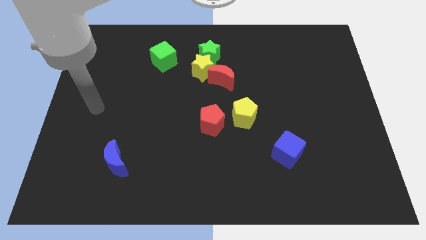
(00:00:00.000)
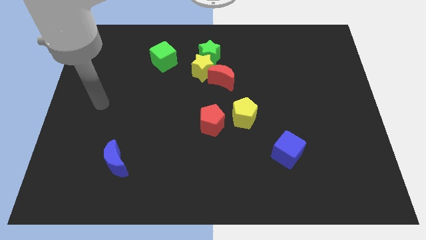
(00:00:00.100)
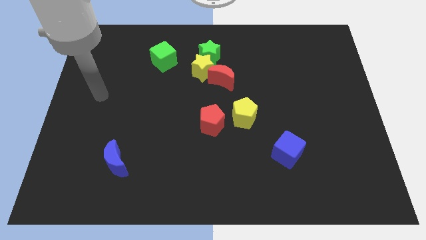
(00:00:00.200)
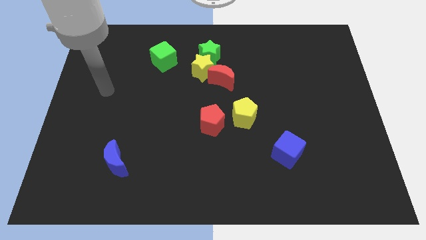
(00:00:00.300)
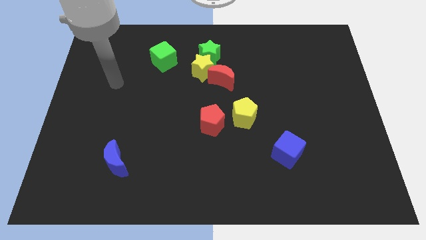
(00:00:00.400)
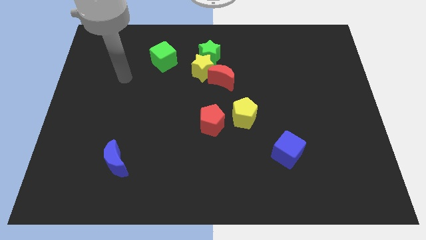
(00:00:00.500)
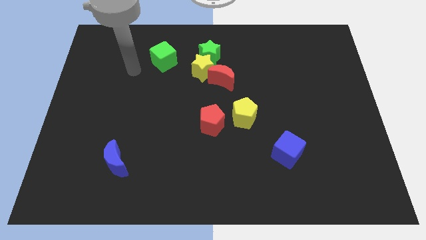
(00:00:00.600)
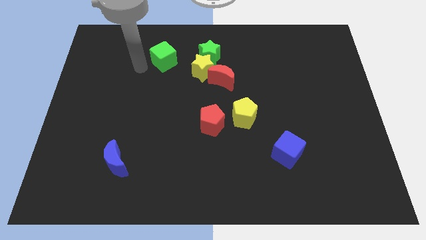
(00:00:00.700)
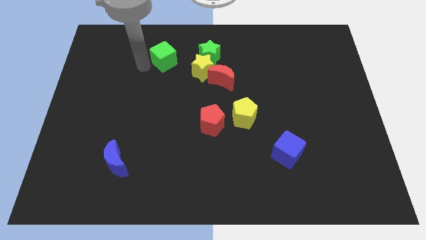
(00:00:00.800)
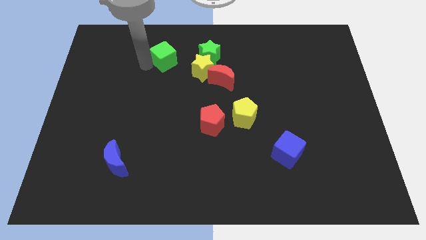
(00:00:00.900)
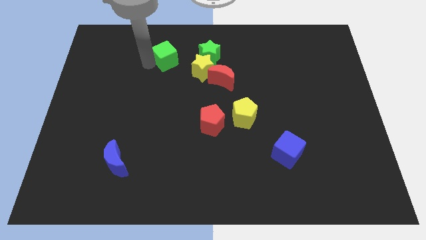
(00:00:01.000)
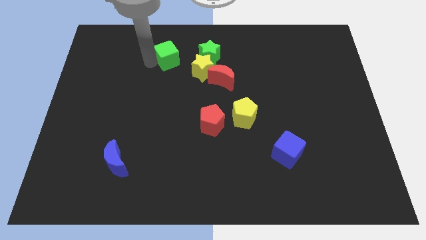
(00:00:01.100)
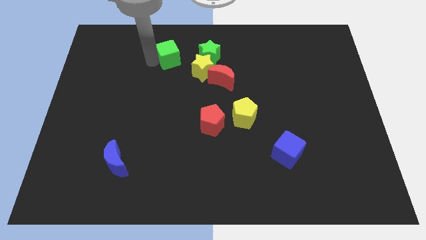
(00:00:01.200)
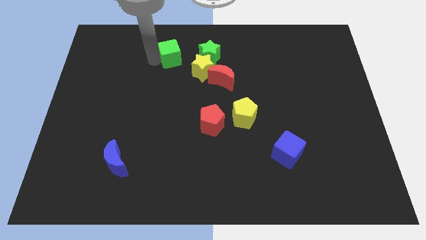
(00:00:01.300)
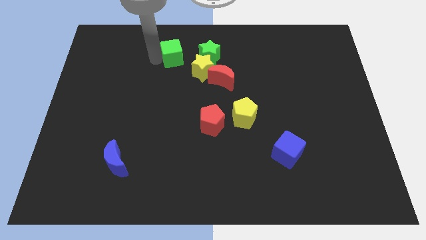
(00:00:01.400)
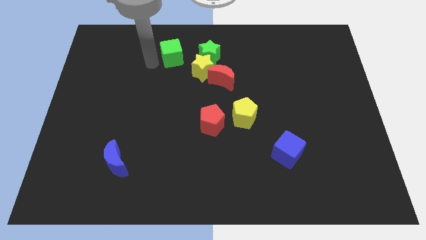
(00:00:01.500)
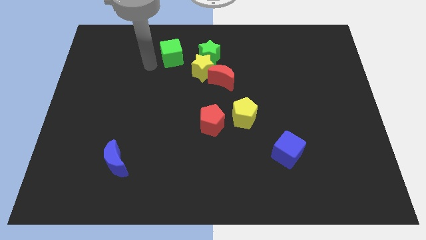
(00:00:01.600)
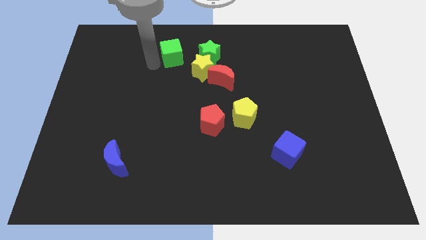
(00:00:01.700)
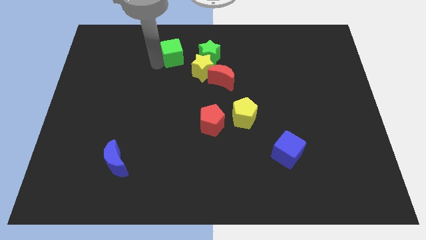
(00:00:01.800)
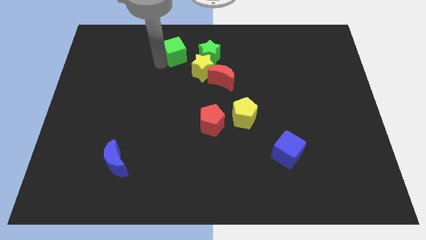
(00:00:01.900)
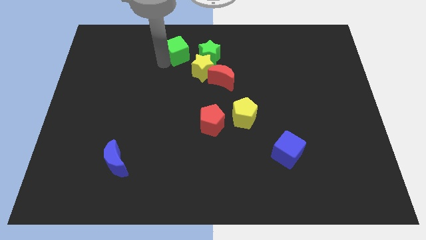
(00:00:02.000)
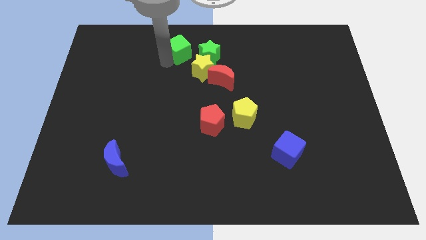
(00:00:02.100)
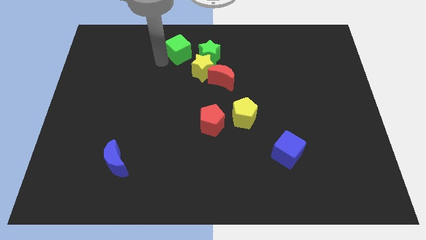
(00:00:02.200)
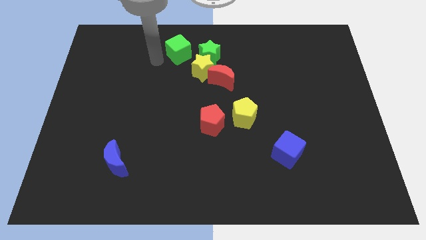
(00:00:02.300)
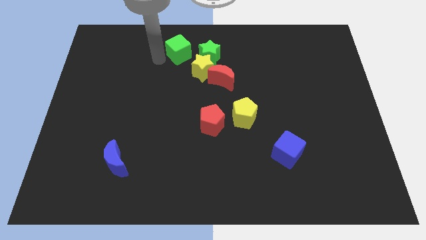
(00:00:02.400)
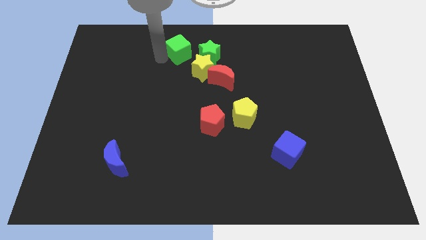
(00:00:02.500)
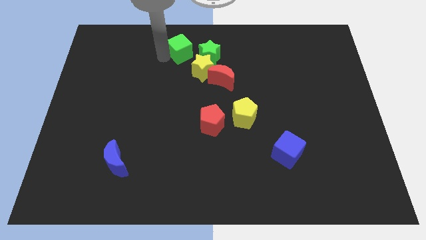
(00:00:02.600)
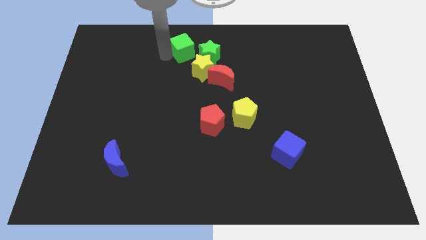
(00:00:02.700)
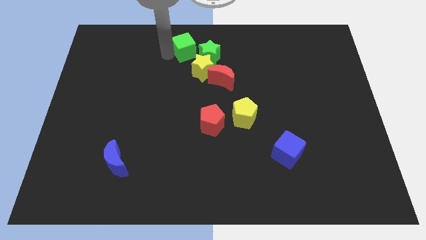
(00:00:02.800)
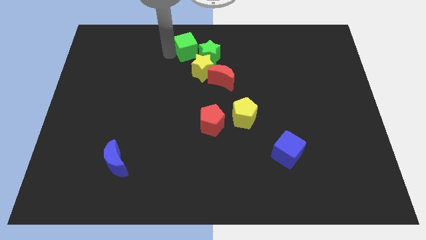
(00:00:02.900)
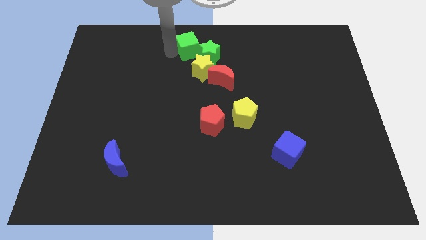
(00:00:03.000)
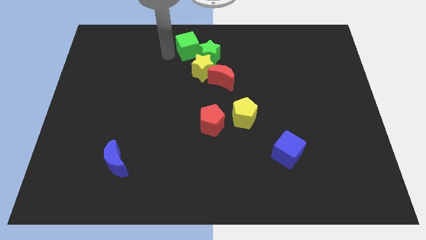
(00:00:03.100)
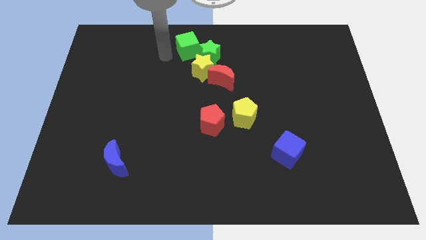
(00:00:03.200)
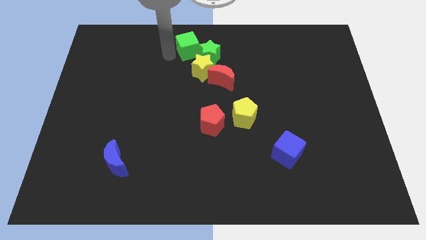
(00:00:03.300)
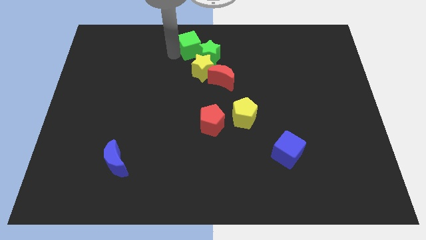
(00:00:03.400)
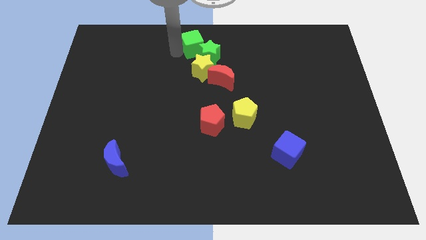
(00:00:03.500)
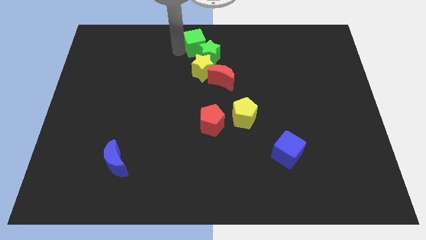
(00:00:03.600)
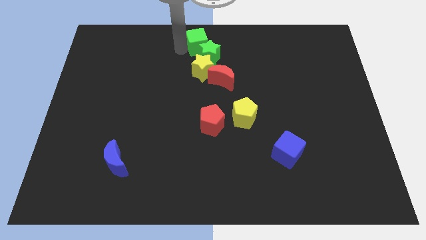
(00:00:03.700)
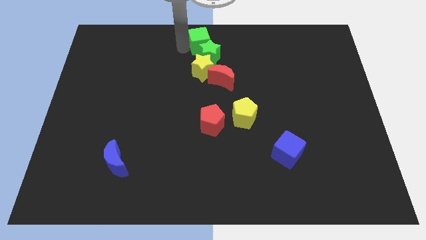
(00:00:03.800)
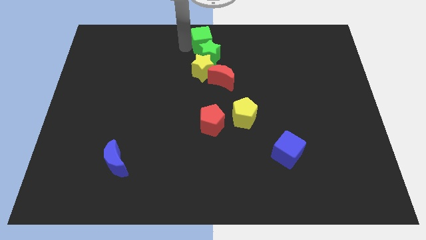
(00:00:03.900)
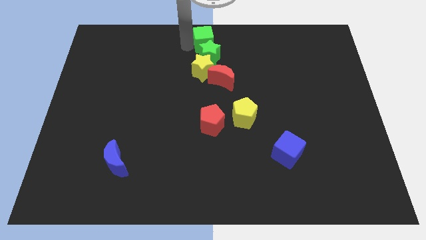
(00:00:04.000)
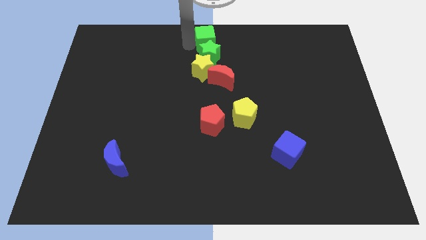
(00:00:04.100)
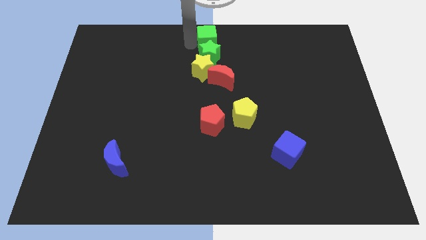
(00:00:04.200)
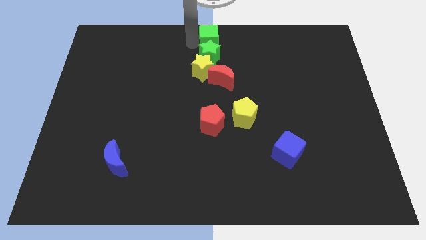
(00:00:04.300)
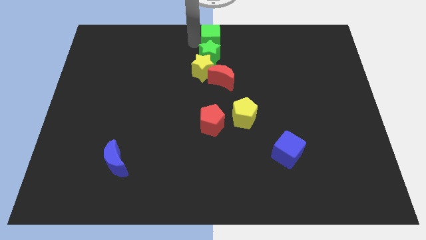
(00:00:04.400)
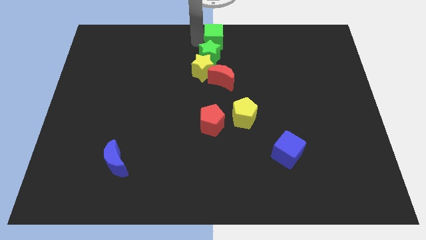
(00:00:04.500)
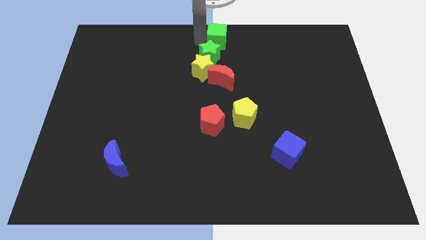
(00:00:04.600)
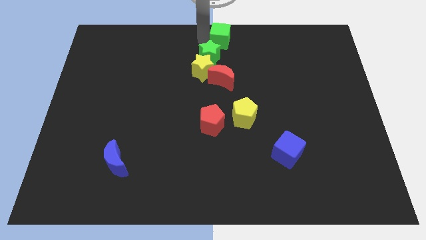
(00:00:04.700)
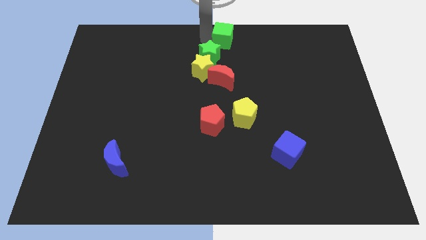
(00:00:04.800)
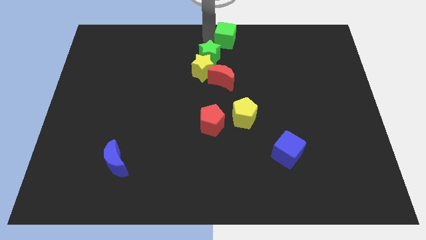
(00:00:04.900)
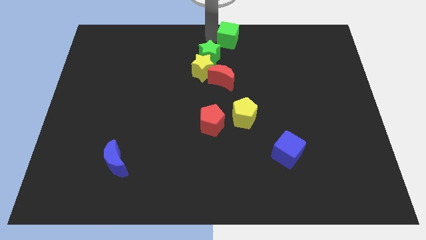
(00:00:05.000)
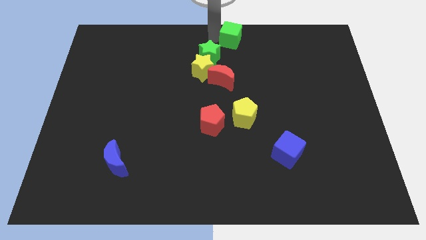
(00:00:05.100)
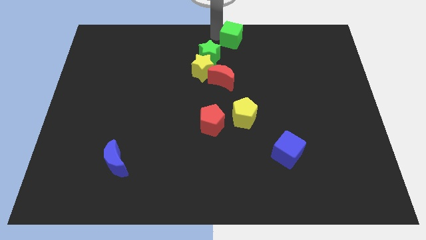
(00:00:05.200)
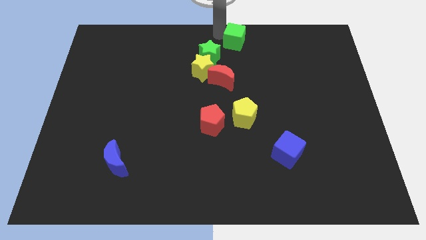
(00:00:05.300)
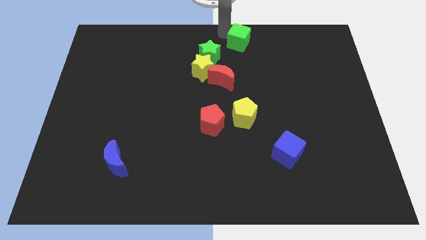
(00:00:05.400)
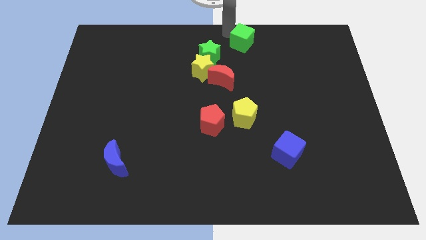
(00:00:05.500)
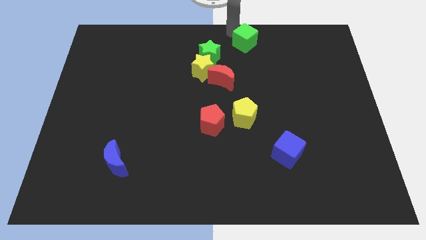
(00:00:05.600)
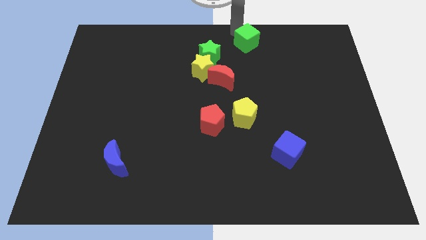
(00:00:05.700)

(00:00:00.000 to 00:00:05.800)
push the green cube right

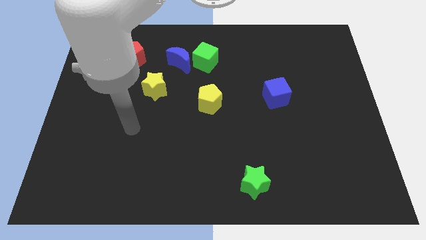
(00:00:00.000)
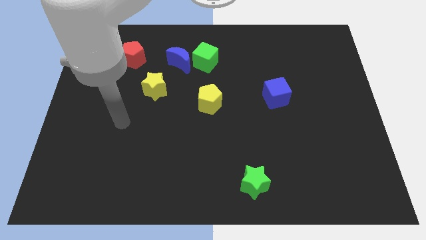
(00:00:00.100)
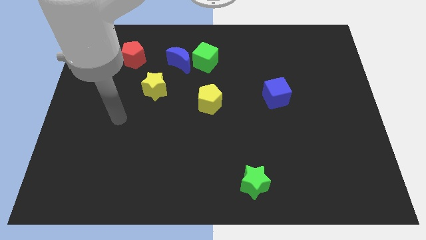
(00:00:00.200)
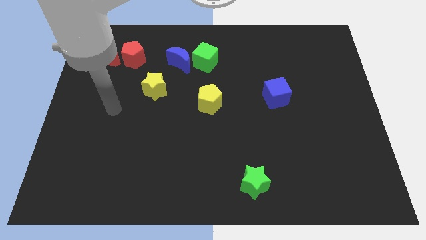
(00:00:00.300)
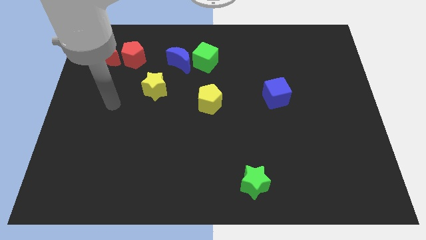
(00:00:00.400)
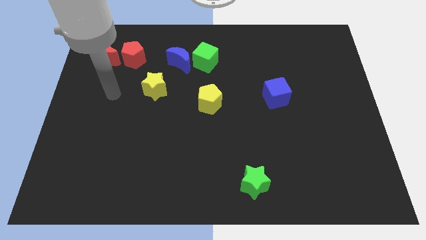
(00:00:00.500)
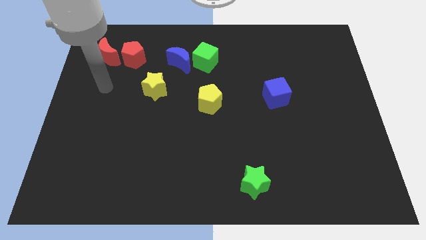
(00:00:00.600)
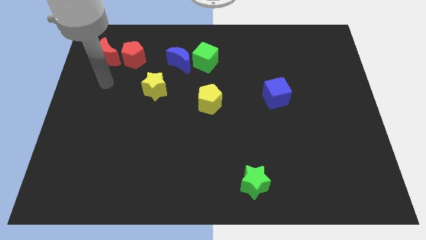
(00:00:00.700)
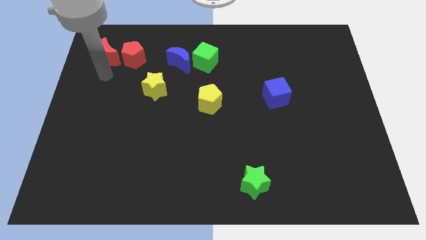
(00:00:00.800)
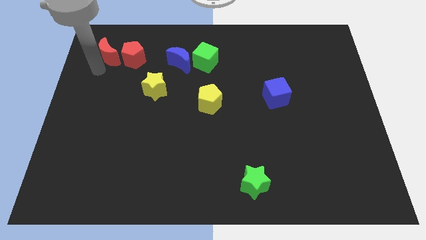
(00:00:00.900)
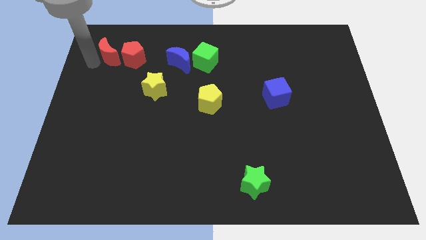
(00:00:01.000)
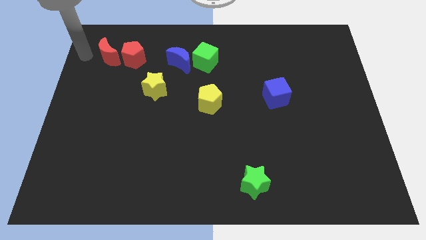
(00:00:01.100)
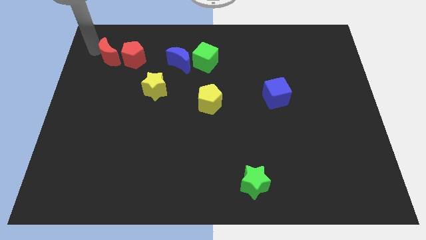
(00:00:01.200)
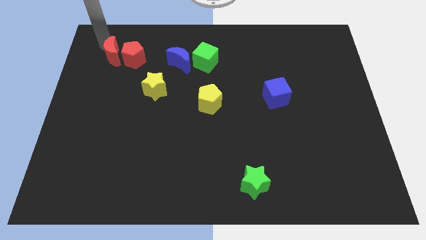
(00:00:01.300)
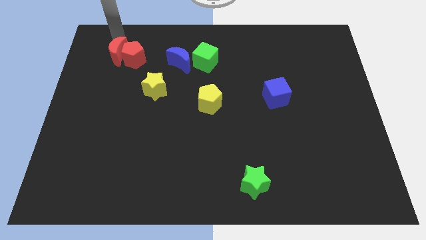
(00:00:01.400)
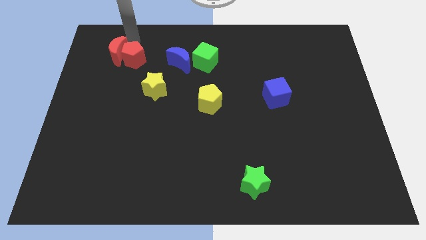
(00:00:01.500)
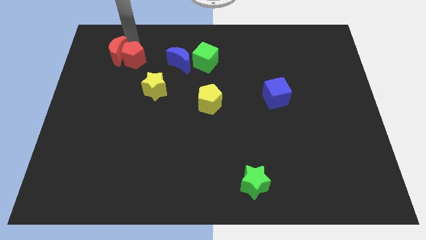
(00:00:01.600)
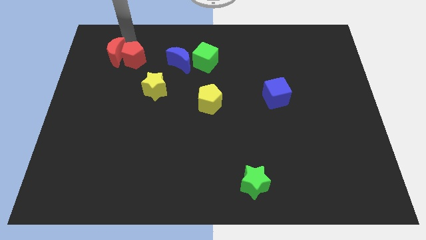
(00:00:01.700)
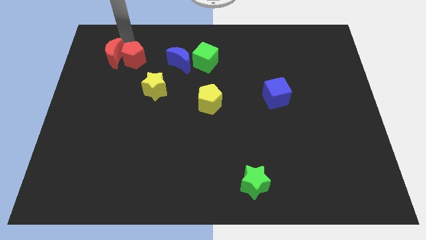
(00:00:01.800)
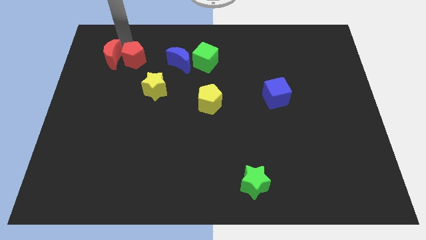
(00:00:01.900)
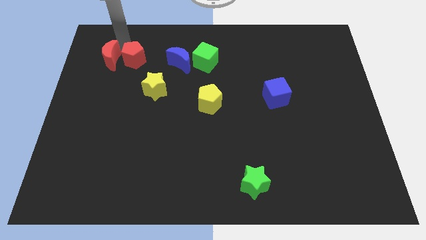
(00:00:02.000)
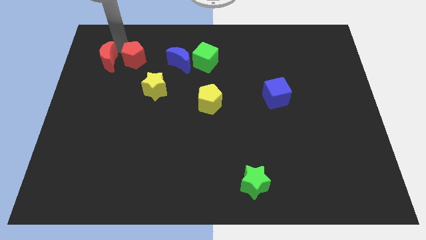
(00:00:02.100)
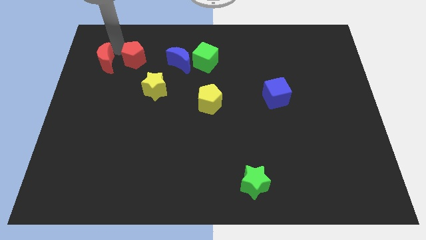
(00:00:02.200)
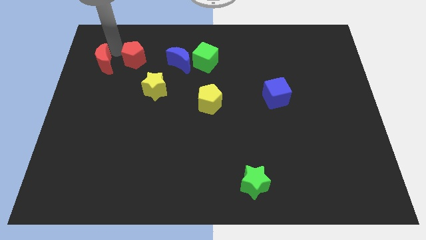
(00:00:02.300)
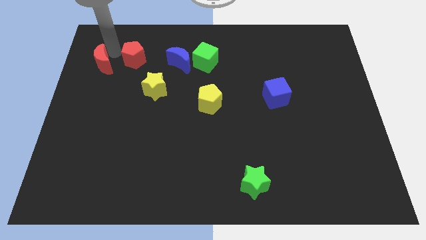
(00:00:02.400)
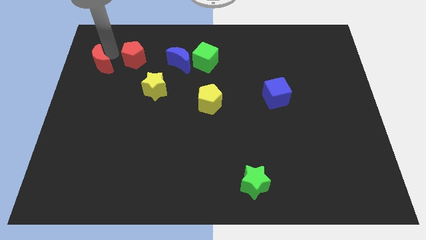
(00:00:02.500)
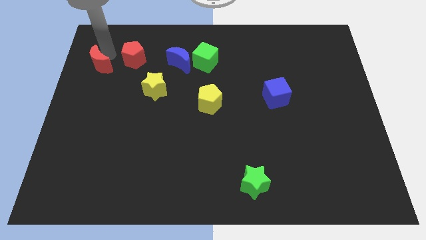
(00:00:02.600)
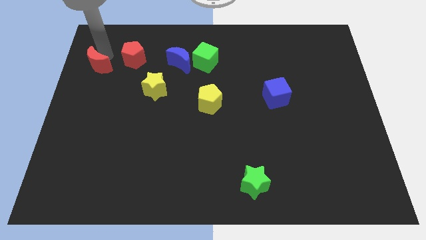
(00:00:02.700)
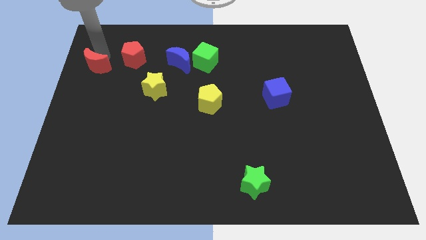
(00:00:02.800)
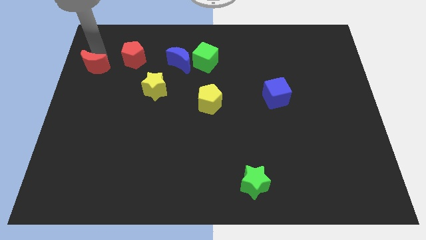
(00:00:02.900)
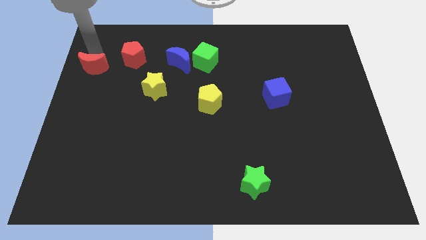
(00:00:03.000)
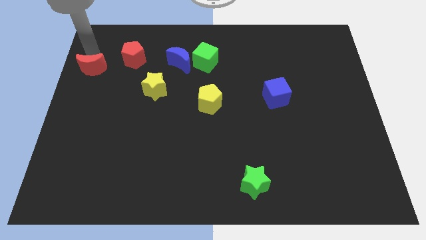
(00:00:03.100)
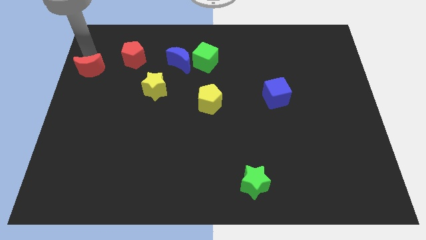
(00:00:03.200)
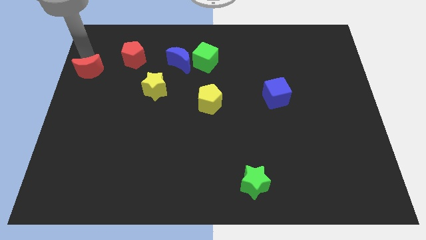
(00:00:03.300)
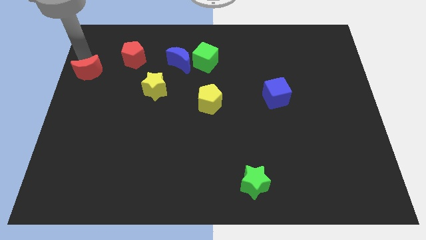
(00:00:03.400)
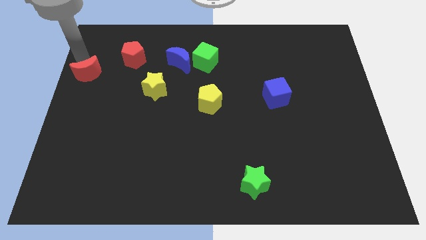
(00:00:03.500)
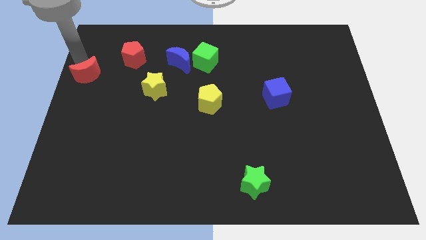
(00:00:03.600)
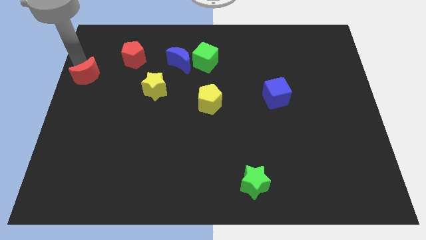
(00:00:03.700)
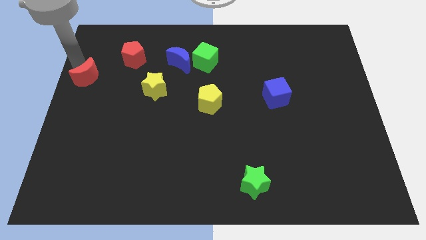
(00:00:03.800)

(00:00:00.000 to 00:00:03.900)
slightly push the red moon downwards
